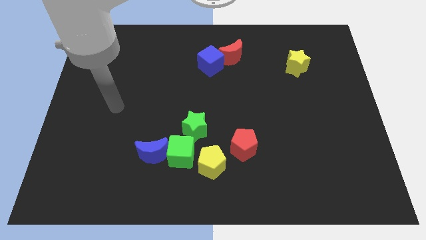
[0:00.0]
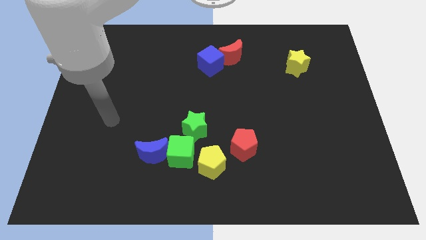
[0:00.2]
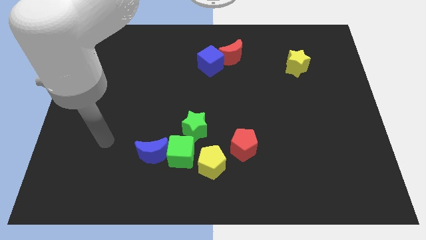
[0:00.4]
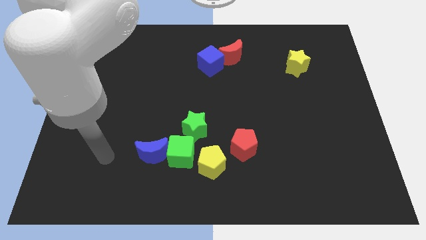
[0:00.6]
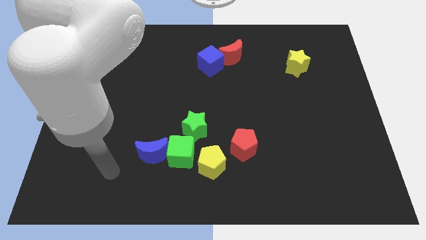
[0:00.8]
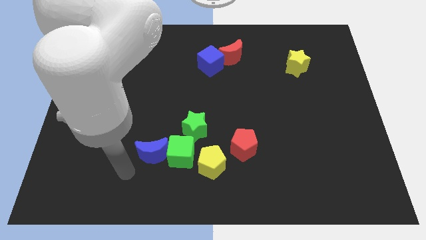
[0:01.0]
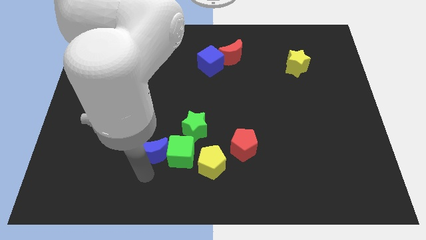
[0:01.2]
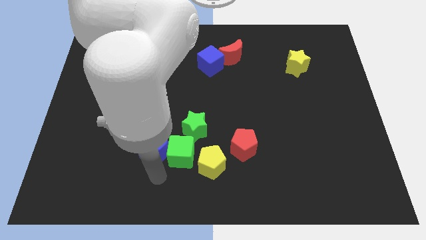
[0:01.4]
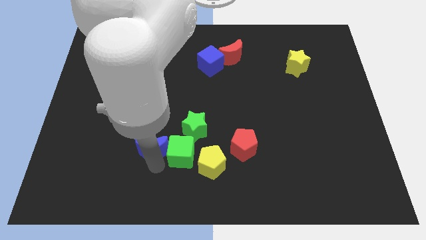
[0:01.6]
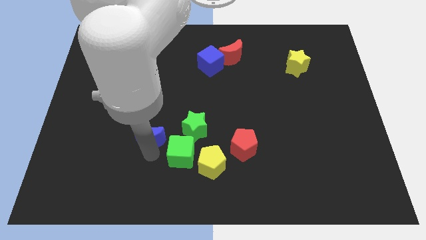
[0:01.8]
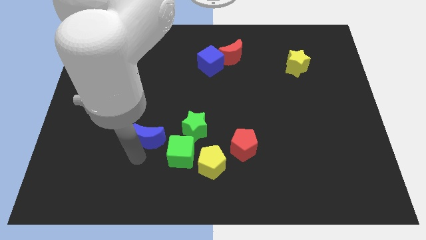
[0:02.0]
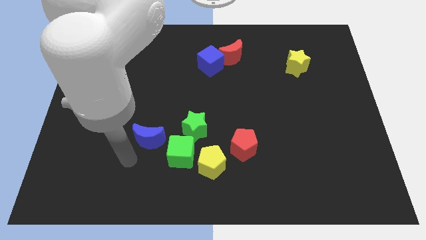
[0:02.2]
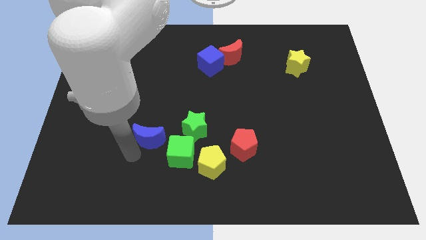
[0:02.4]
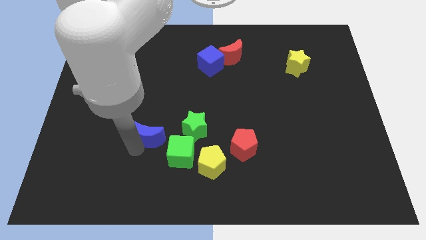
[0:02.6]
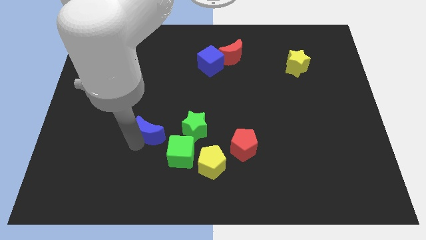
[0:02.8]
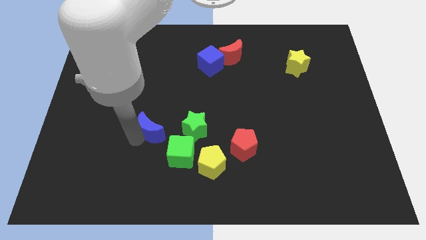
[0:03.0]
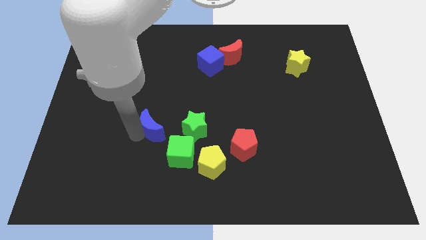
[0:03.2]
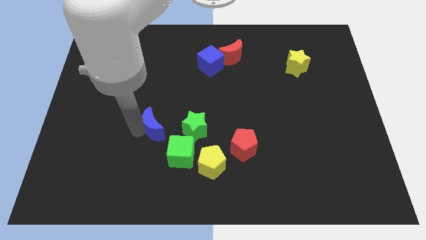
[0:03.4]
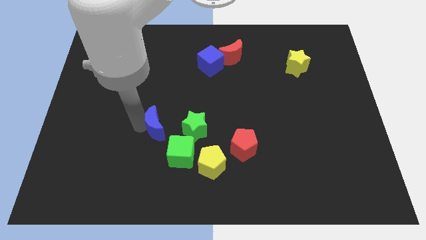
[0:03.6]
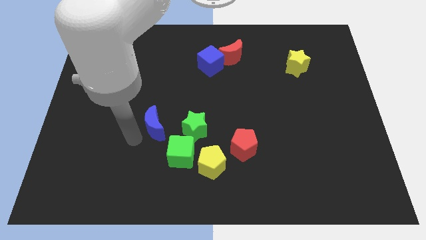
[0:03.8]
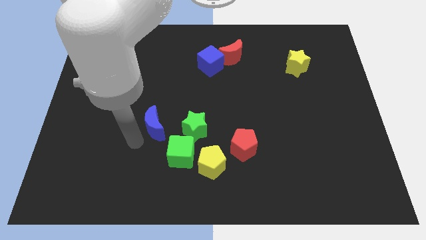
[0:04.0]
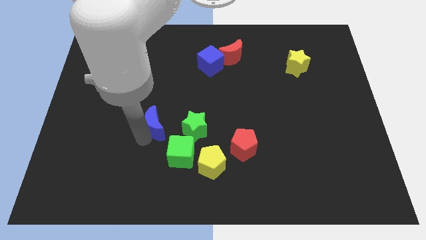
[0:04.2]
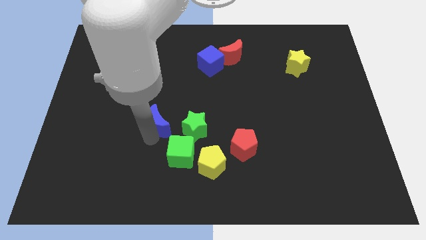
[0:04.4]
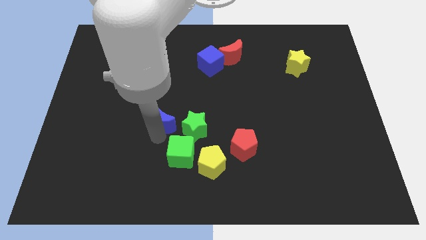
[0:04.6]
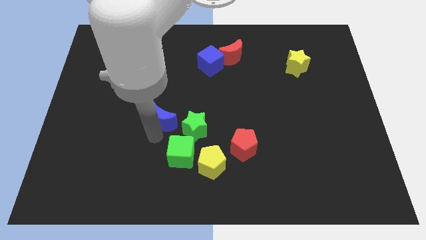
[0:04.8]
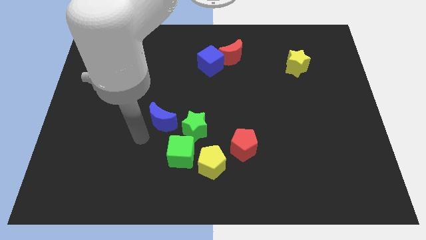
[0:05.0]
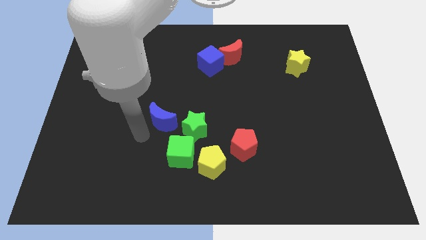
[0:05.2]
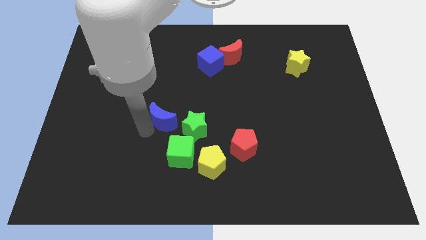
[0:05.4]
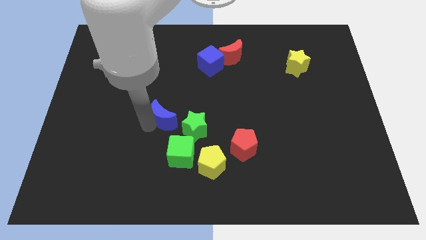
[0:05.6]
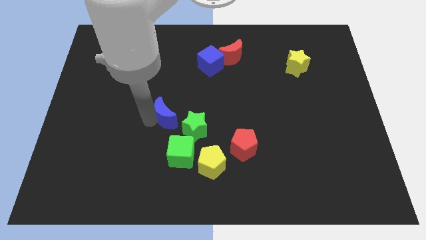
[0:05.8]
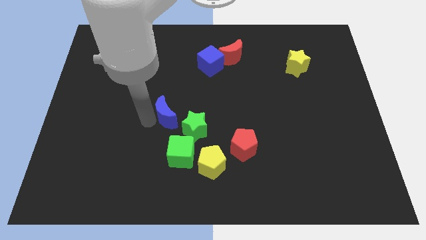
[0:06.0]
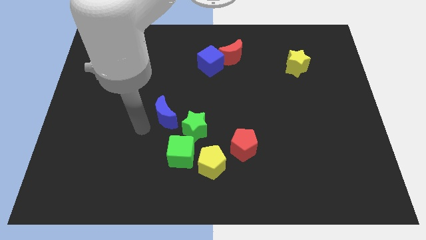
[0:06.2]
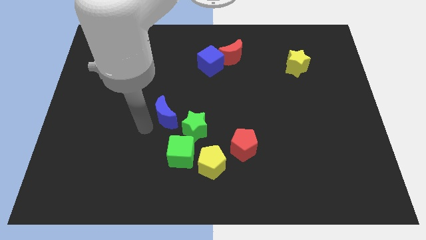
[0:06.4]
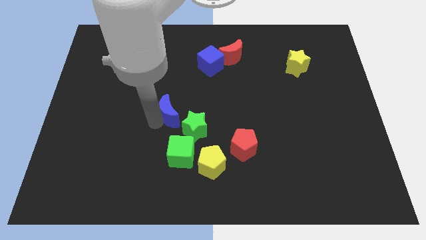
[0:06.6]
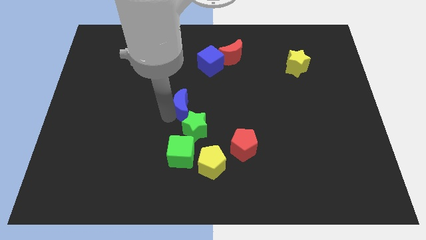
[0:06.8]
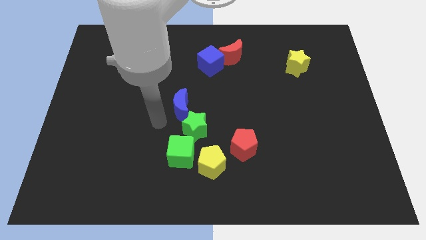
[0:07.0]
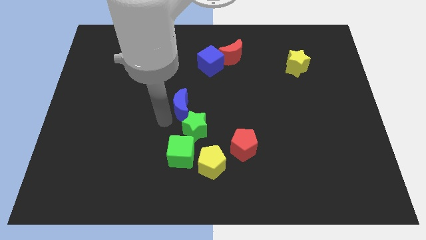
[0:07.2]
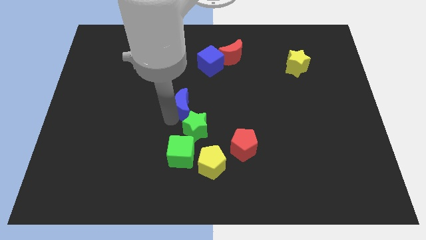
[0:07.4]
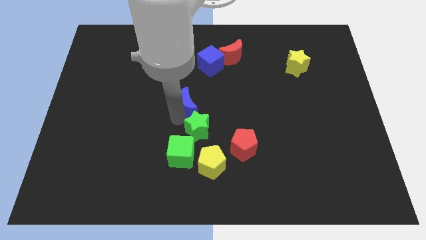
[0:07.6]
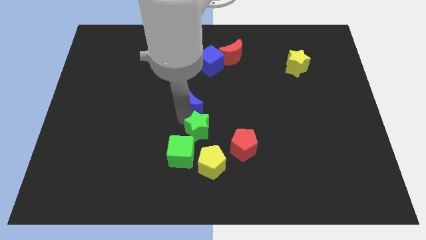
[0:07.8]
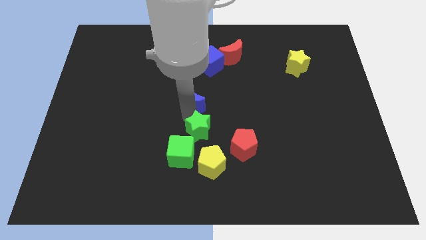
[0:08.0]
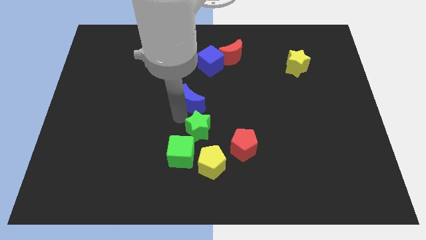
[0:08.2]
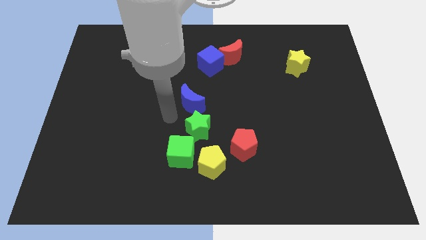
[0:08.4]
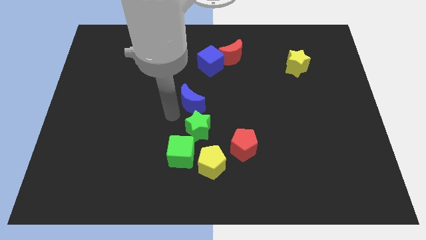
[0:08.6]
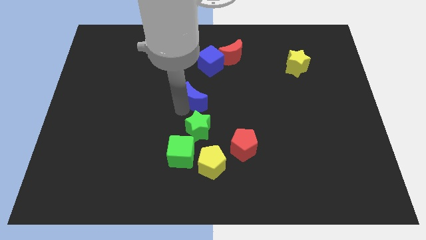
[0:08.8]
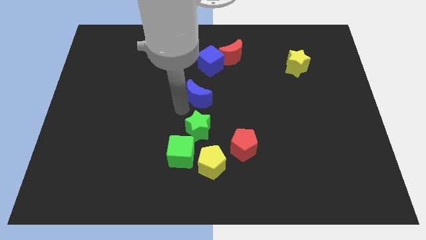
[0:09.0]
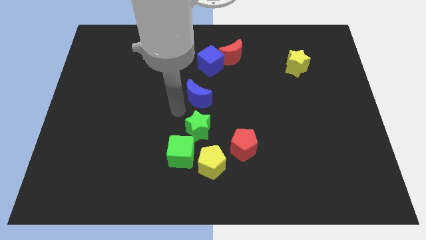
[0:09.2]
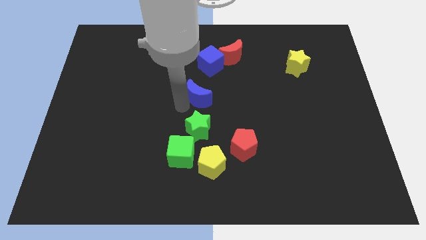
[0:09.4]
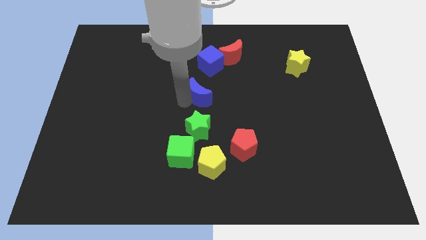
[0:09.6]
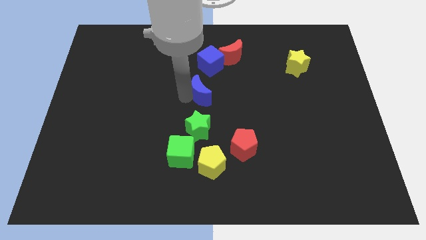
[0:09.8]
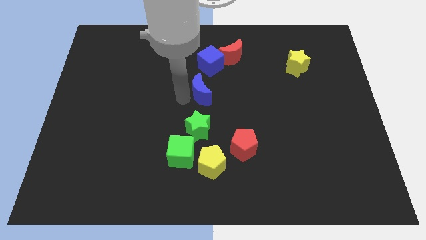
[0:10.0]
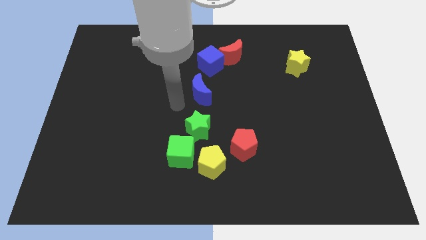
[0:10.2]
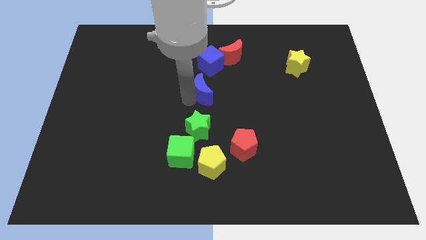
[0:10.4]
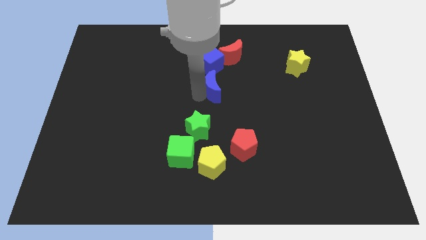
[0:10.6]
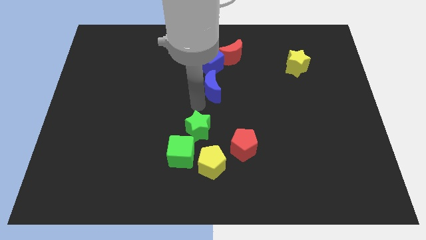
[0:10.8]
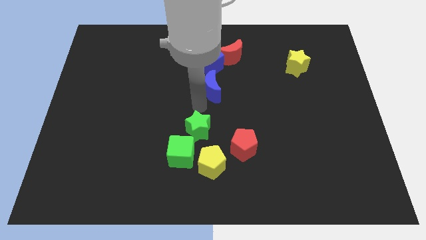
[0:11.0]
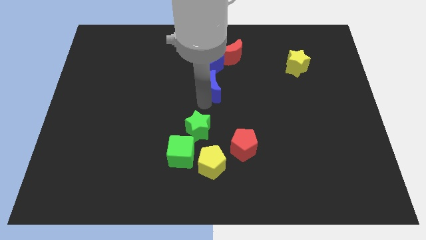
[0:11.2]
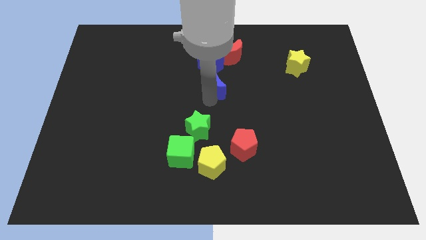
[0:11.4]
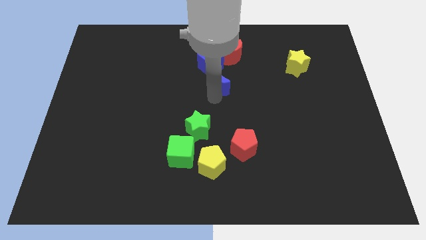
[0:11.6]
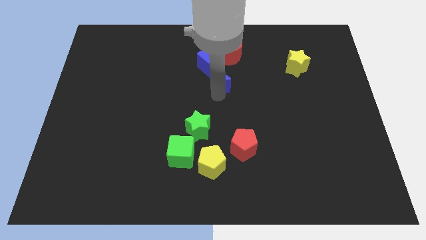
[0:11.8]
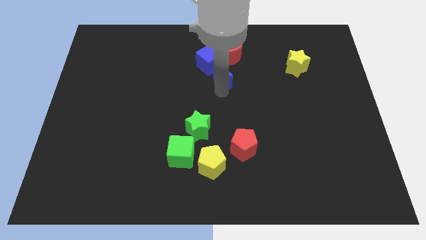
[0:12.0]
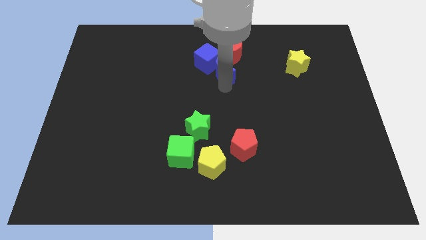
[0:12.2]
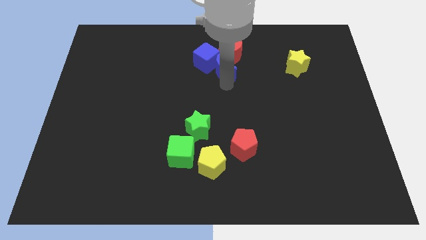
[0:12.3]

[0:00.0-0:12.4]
put the blue moon to the red moon

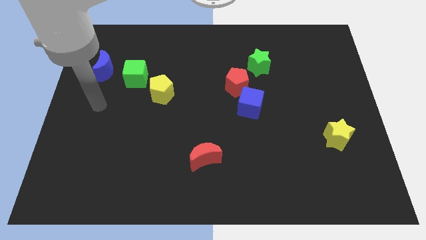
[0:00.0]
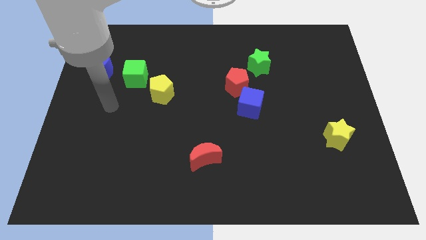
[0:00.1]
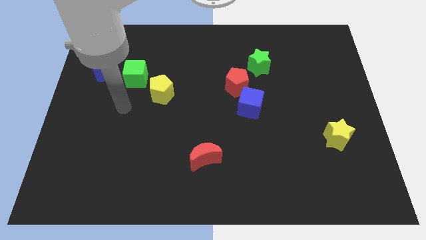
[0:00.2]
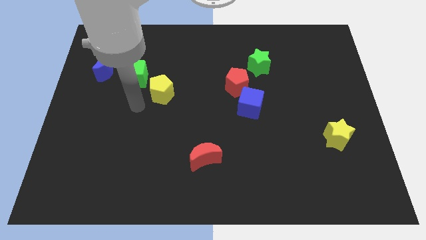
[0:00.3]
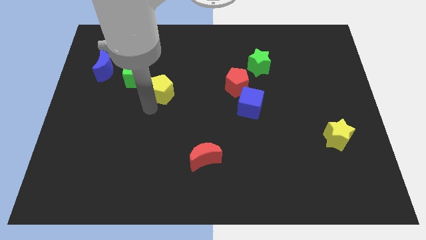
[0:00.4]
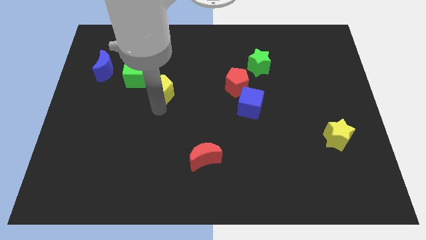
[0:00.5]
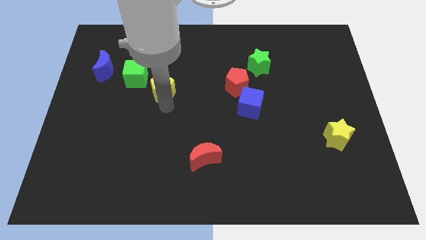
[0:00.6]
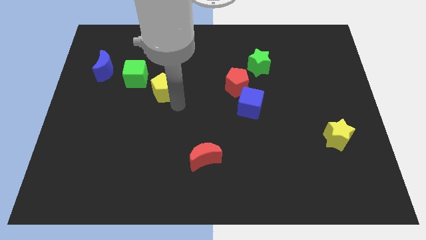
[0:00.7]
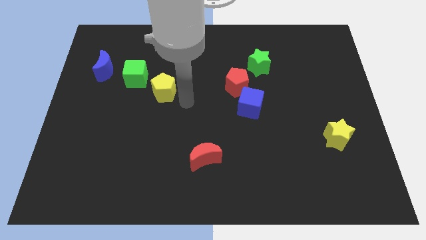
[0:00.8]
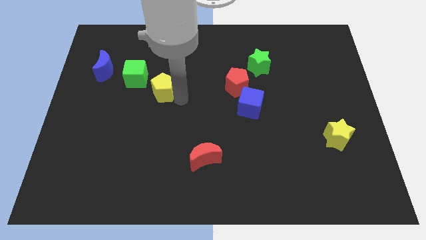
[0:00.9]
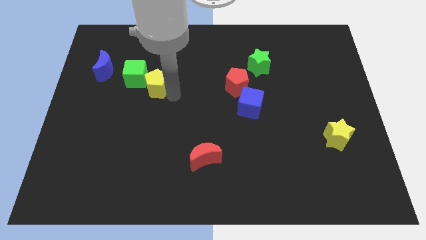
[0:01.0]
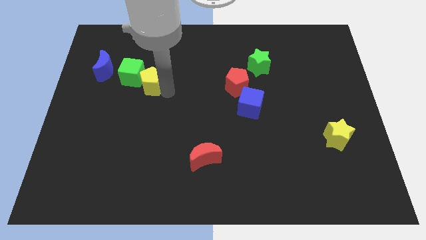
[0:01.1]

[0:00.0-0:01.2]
slide the yellow pentagon towards the green cube
